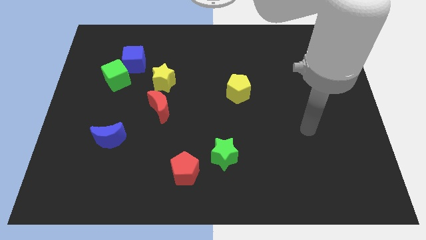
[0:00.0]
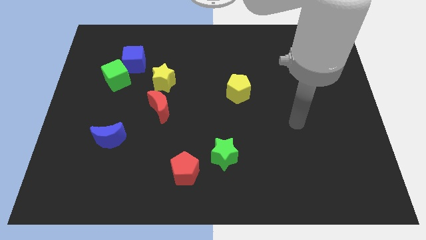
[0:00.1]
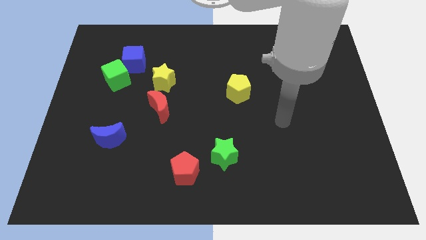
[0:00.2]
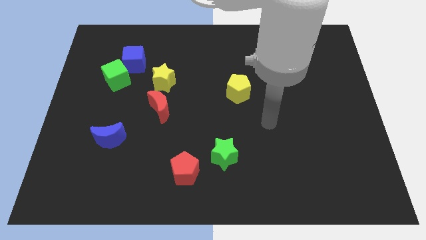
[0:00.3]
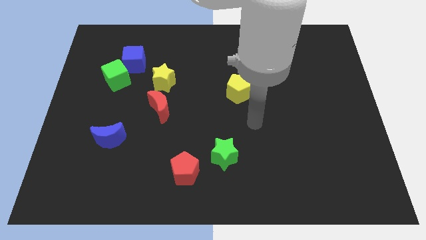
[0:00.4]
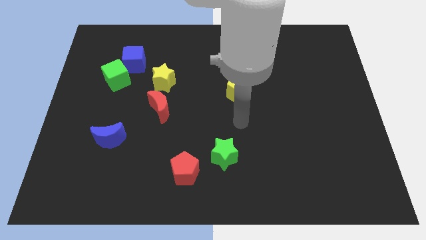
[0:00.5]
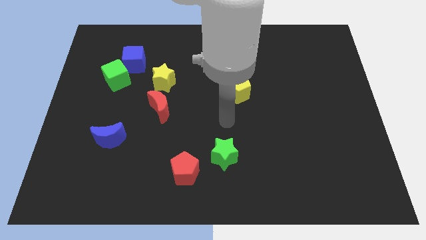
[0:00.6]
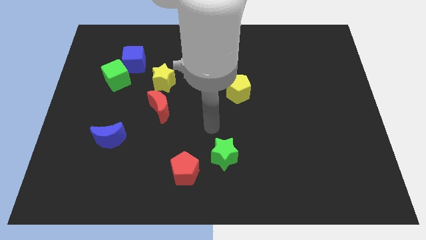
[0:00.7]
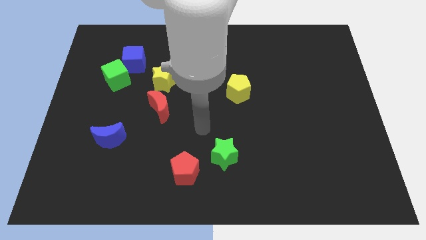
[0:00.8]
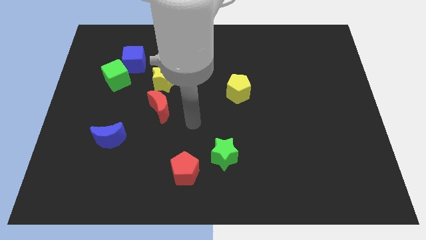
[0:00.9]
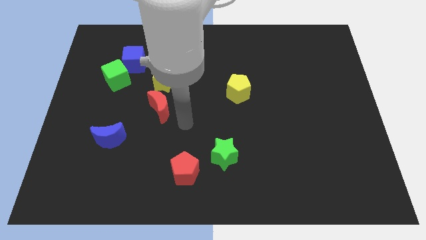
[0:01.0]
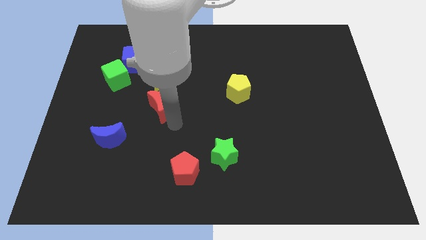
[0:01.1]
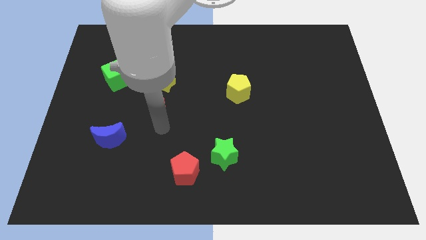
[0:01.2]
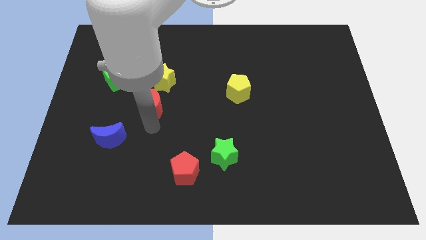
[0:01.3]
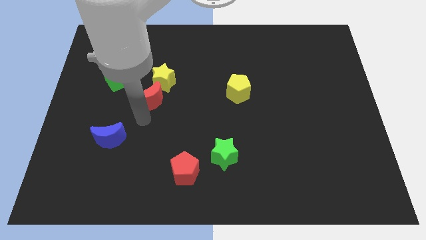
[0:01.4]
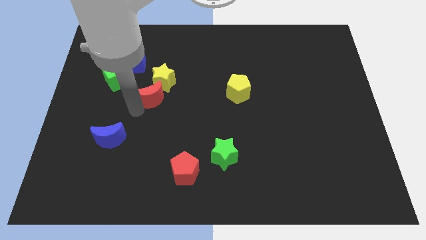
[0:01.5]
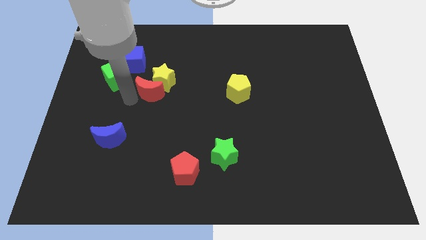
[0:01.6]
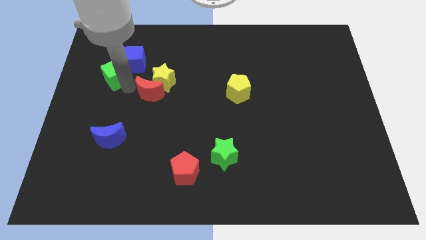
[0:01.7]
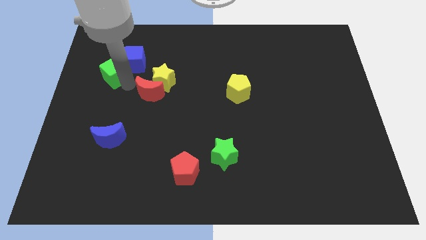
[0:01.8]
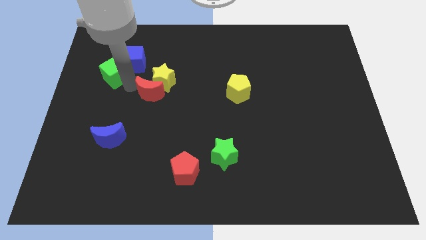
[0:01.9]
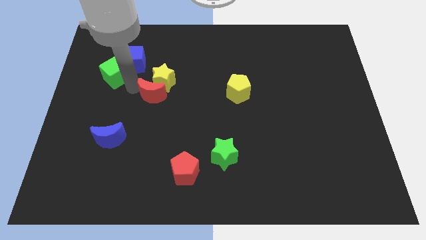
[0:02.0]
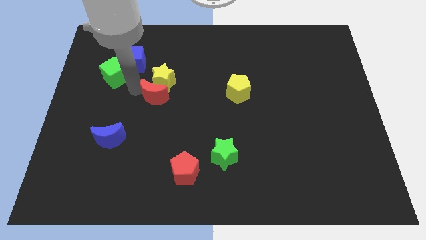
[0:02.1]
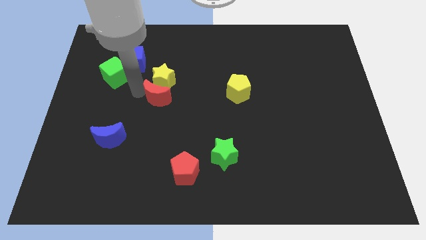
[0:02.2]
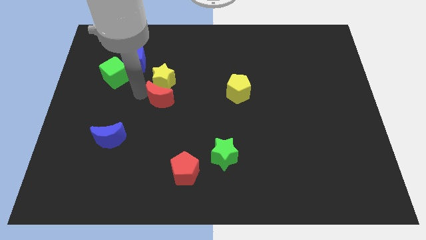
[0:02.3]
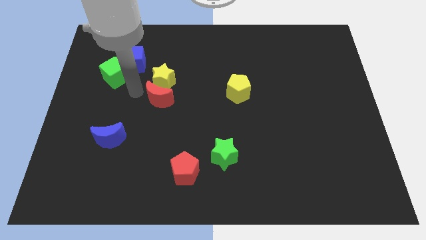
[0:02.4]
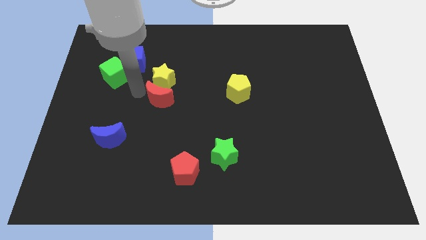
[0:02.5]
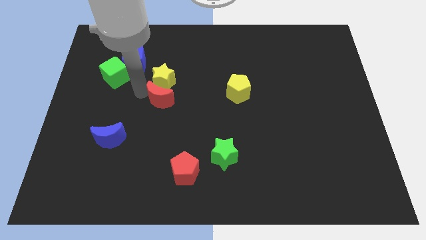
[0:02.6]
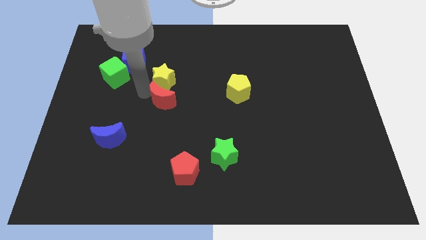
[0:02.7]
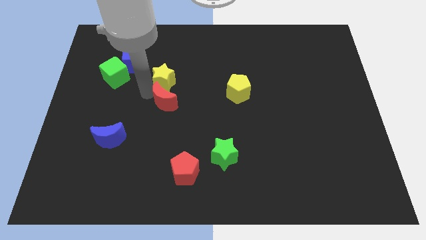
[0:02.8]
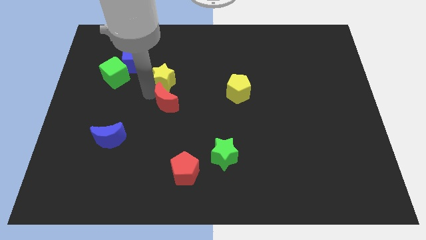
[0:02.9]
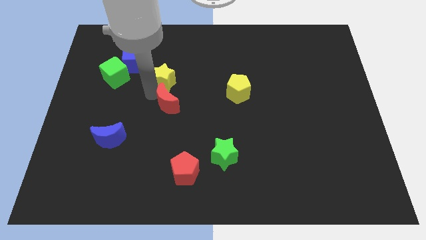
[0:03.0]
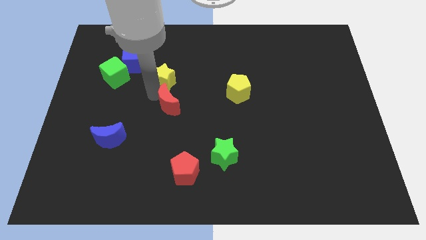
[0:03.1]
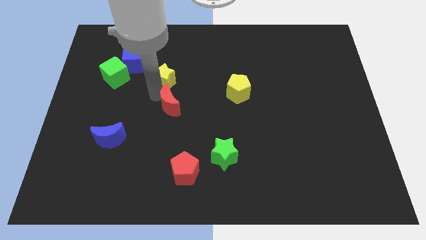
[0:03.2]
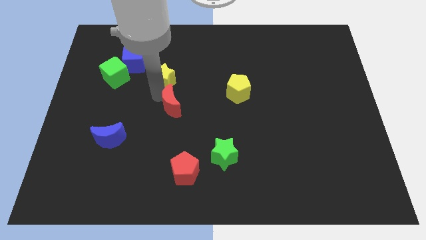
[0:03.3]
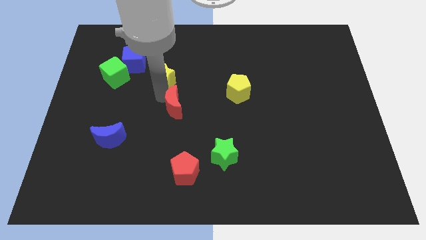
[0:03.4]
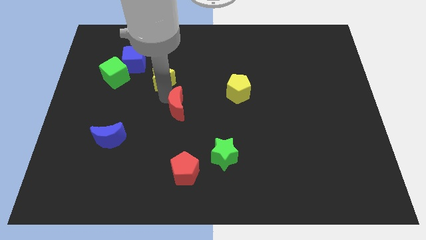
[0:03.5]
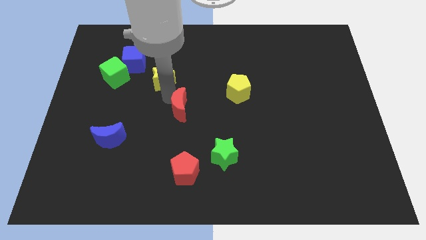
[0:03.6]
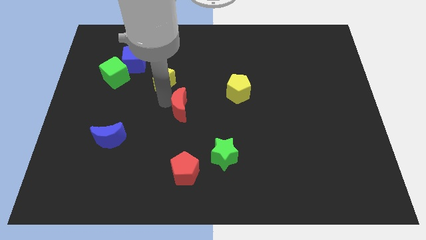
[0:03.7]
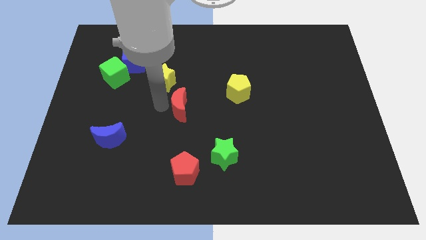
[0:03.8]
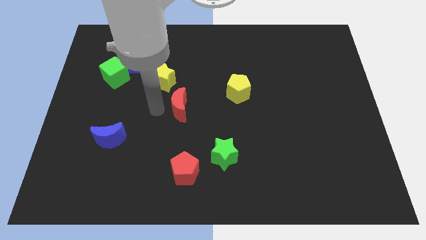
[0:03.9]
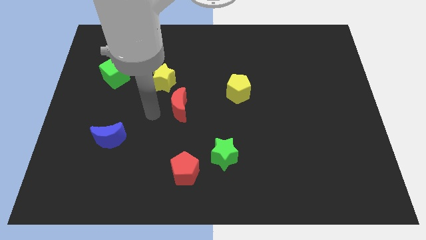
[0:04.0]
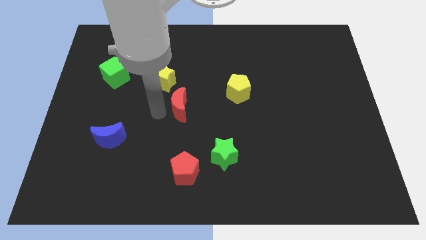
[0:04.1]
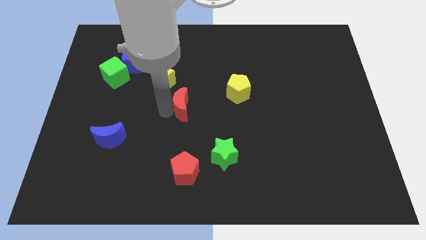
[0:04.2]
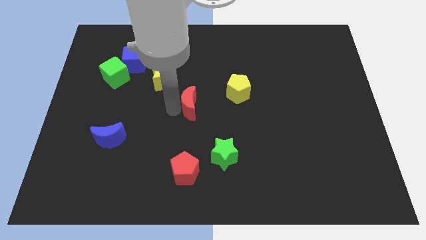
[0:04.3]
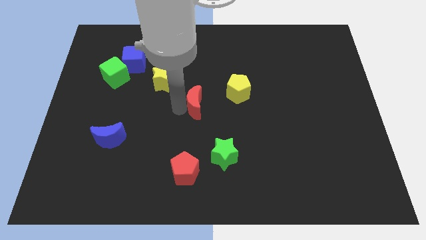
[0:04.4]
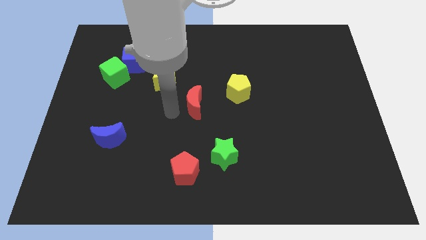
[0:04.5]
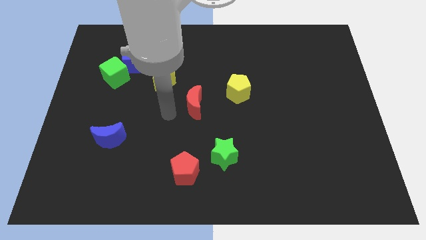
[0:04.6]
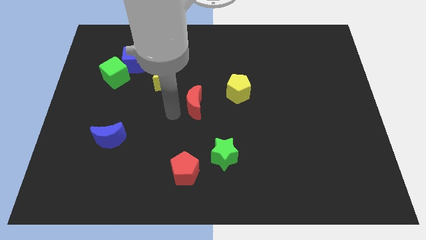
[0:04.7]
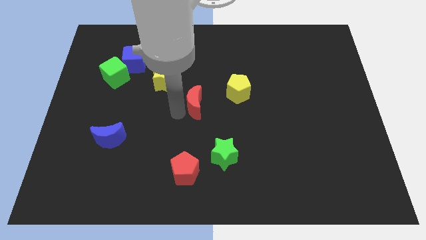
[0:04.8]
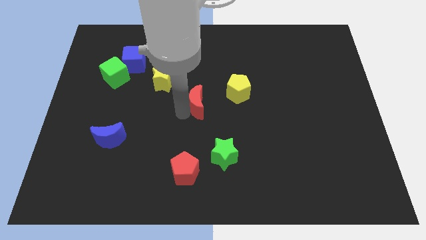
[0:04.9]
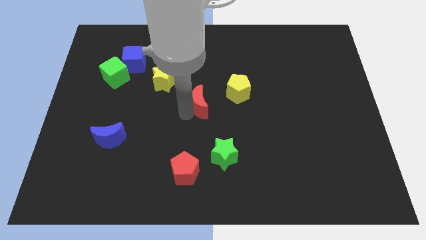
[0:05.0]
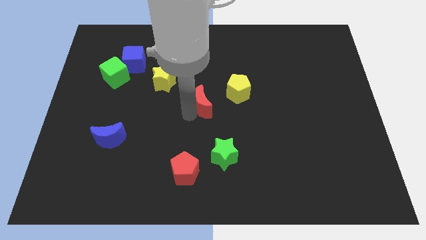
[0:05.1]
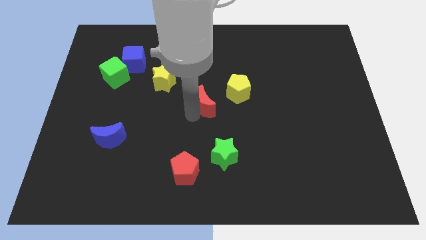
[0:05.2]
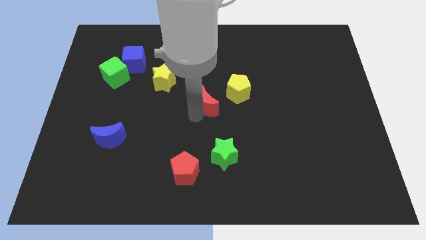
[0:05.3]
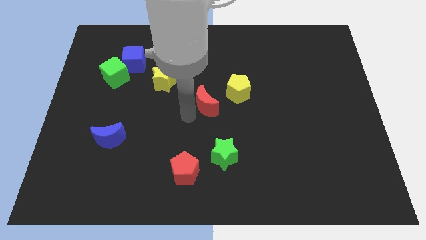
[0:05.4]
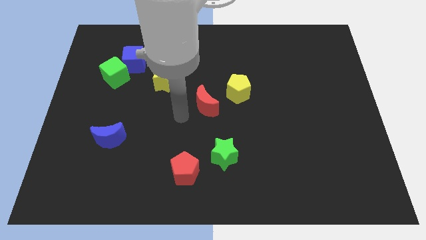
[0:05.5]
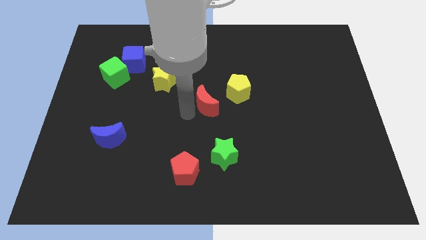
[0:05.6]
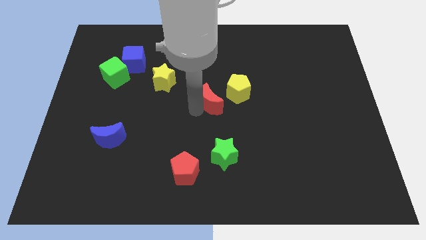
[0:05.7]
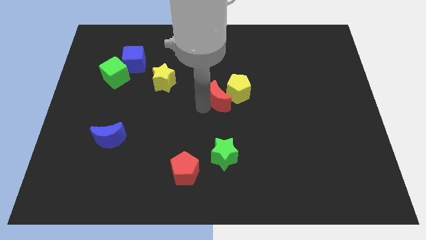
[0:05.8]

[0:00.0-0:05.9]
push the red moon next to the yellow pentagon

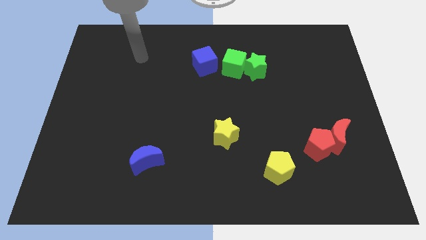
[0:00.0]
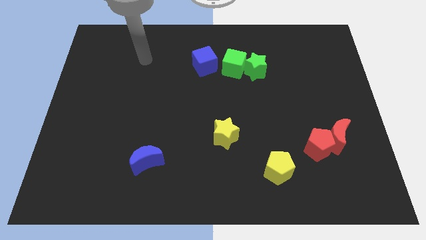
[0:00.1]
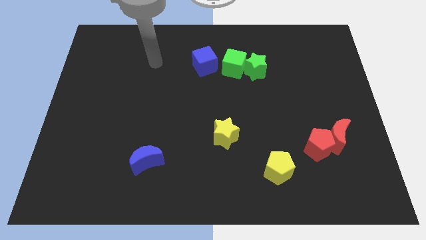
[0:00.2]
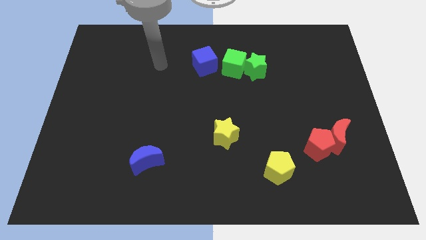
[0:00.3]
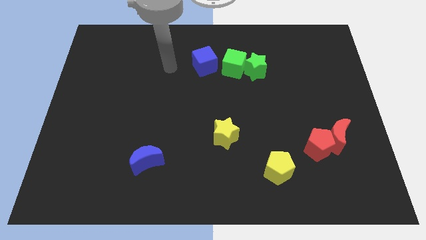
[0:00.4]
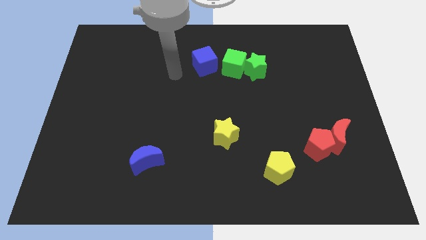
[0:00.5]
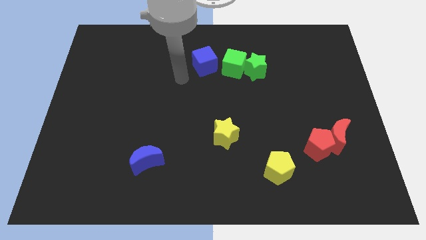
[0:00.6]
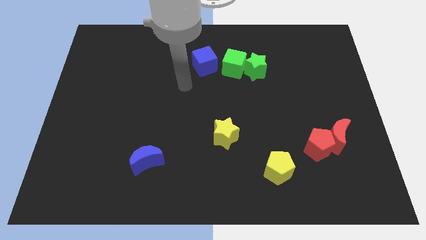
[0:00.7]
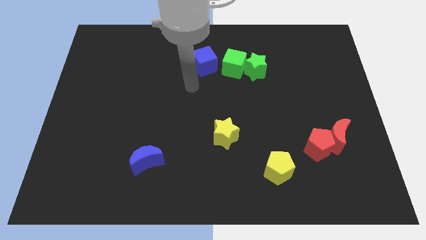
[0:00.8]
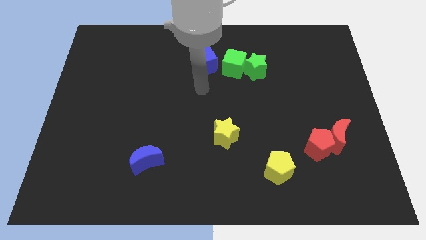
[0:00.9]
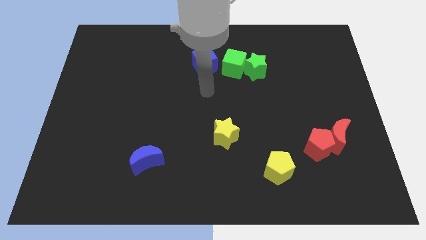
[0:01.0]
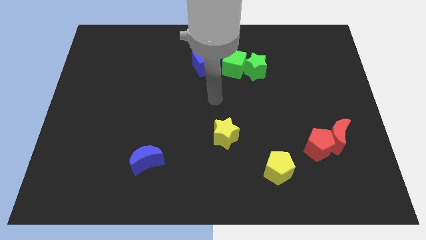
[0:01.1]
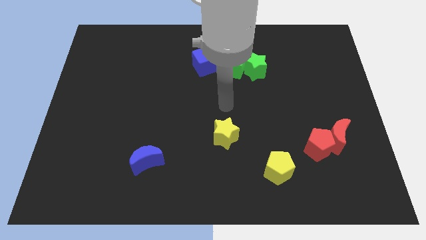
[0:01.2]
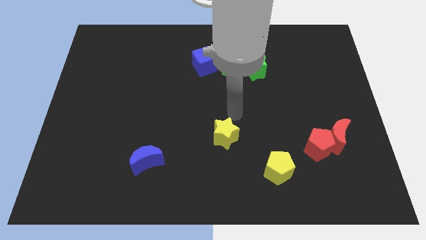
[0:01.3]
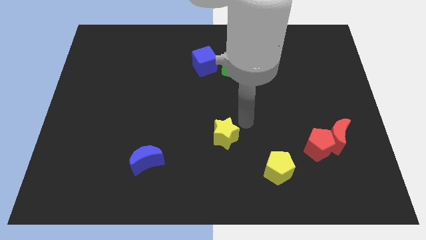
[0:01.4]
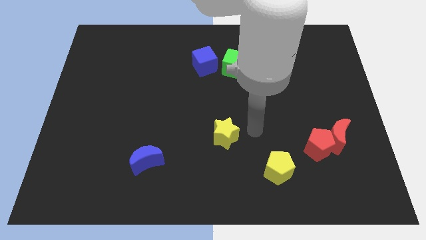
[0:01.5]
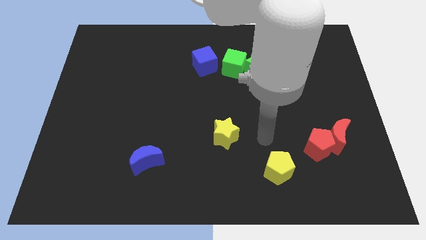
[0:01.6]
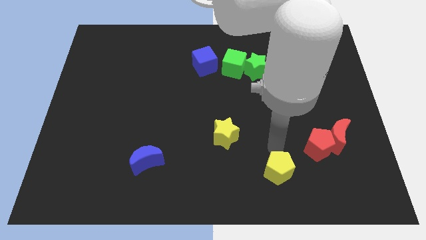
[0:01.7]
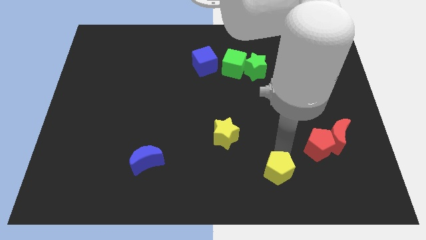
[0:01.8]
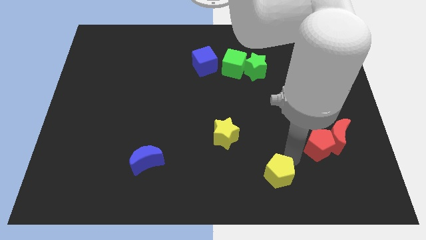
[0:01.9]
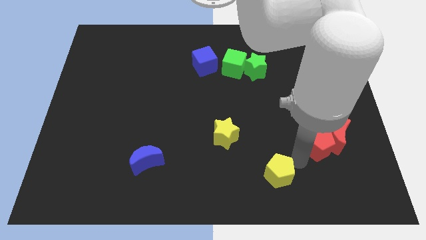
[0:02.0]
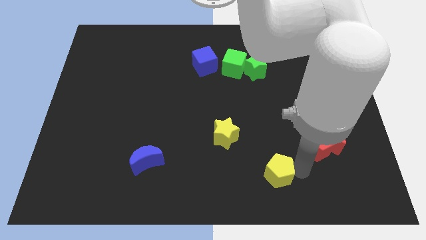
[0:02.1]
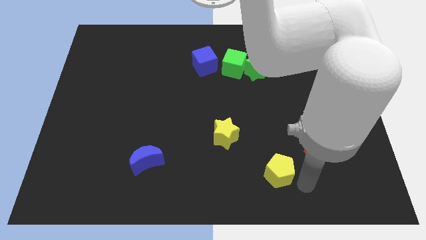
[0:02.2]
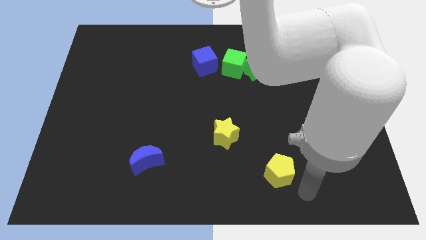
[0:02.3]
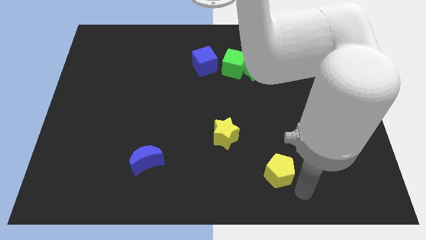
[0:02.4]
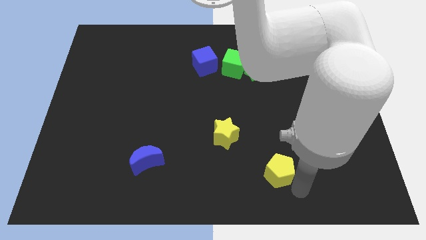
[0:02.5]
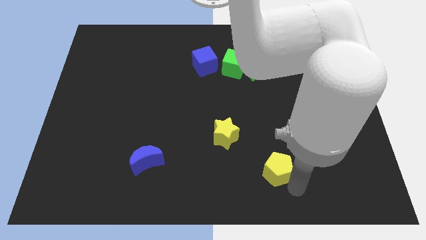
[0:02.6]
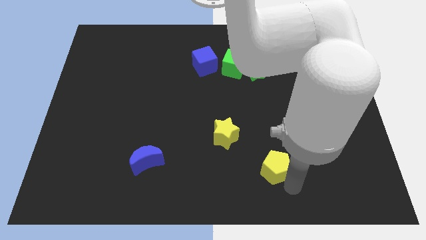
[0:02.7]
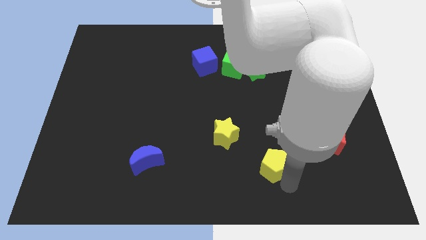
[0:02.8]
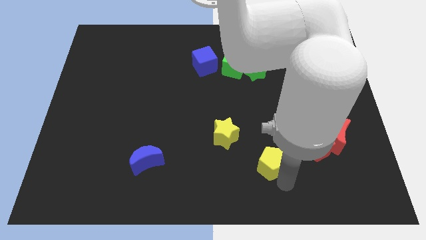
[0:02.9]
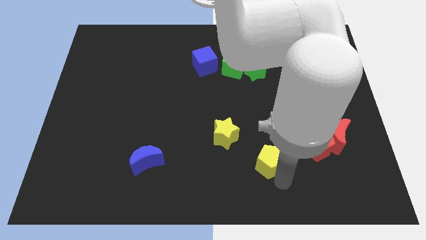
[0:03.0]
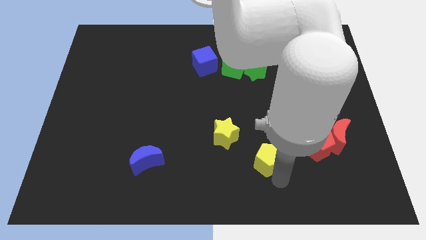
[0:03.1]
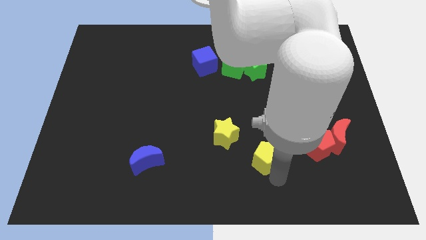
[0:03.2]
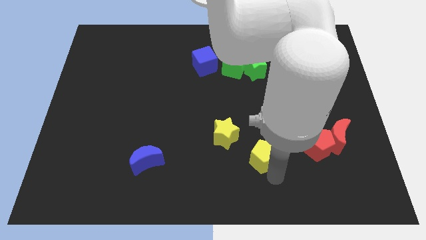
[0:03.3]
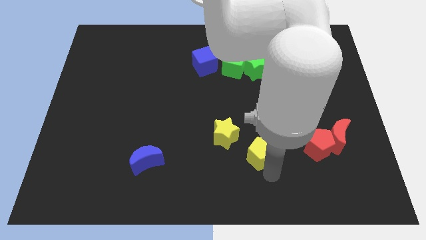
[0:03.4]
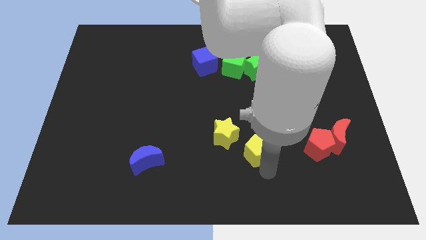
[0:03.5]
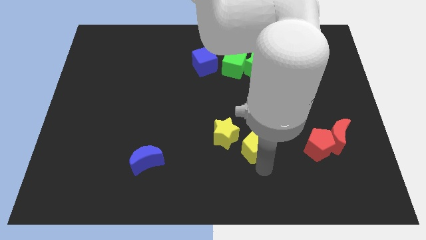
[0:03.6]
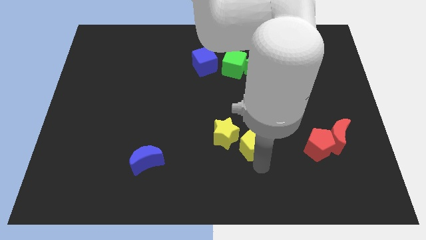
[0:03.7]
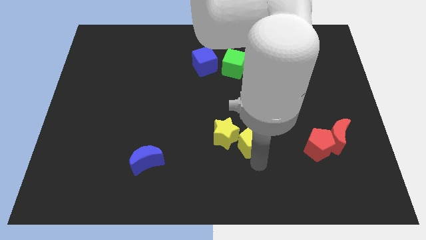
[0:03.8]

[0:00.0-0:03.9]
slide the yellow pentagon towards the yellow star
